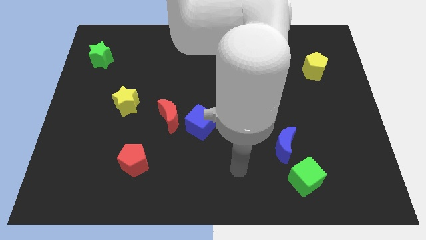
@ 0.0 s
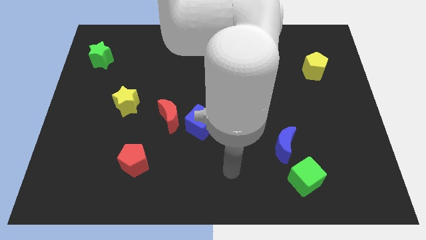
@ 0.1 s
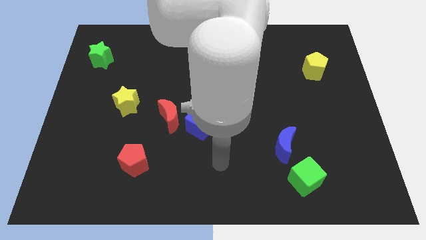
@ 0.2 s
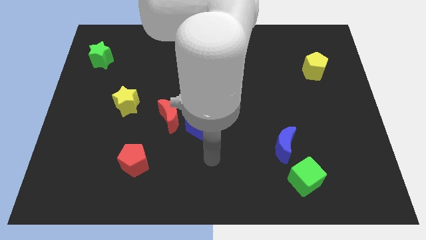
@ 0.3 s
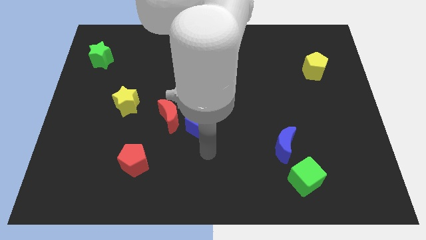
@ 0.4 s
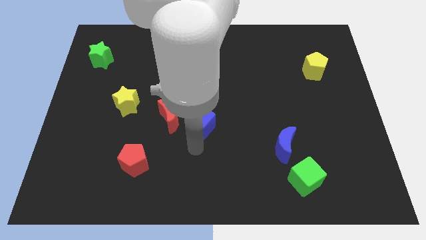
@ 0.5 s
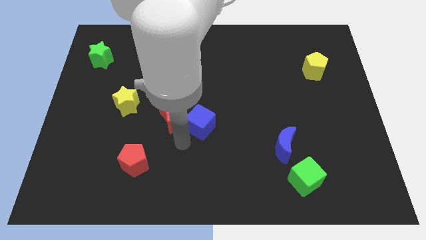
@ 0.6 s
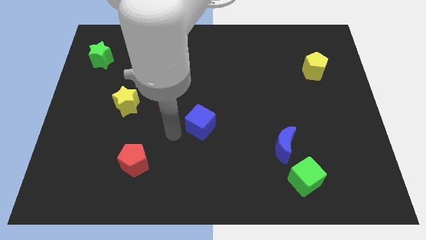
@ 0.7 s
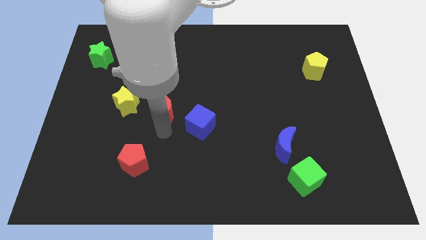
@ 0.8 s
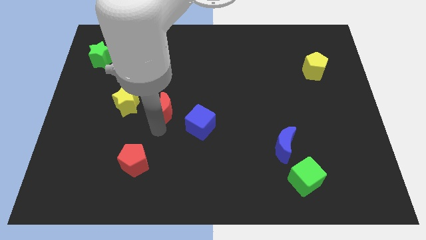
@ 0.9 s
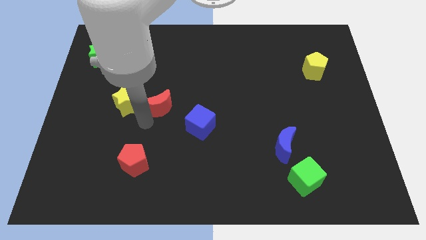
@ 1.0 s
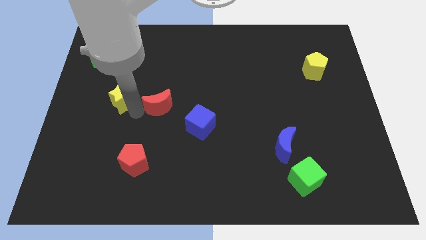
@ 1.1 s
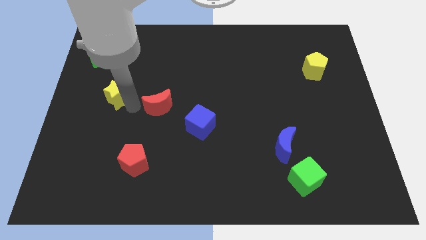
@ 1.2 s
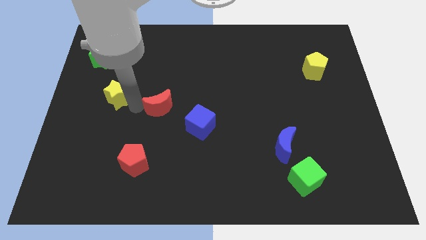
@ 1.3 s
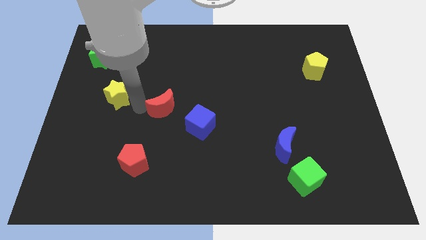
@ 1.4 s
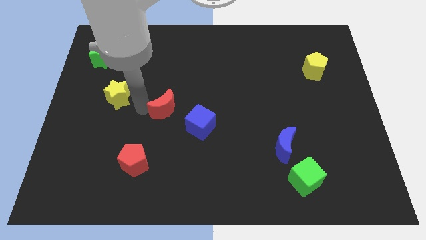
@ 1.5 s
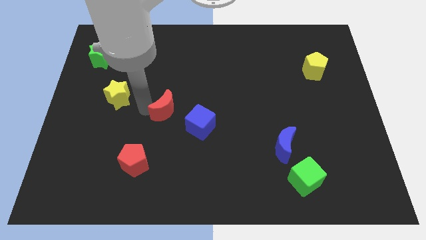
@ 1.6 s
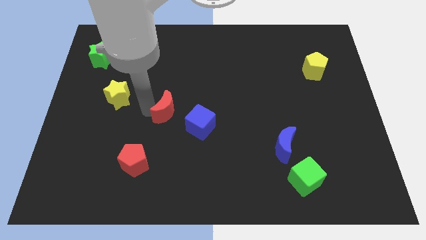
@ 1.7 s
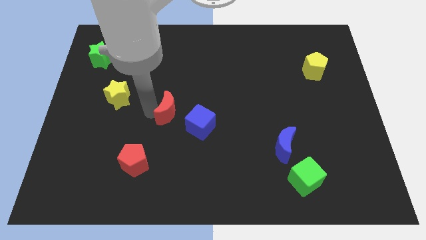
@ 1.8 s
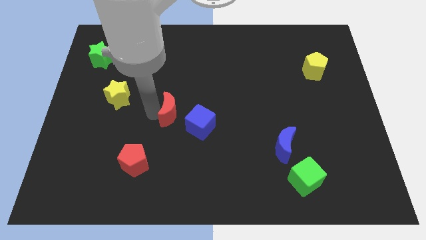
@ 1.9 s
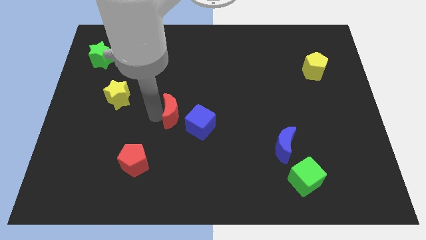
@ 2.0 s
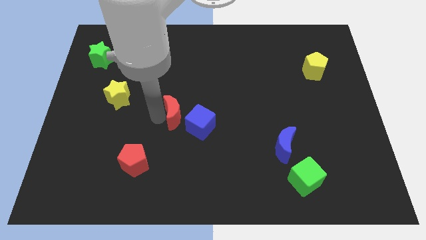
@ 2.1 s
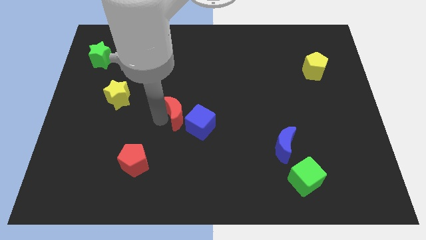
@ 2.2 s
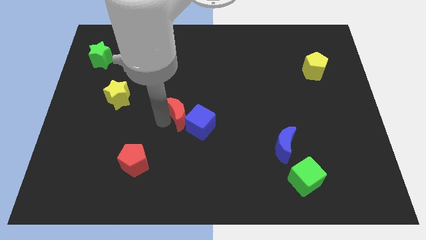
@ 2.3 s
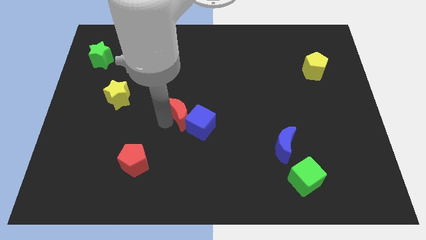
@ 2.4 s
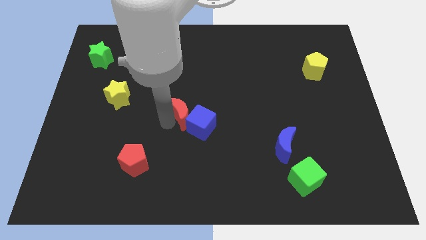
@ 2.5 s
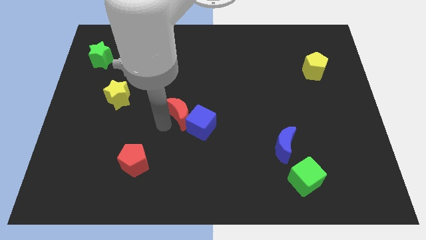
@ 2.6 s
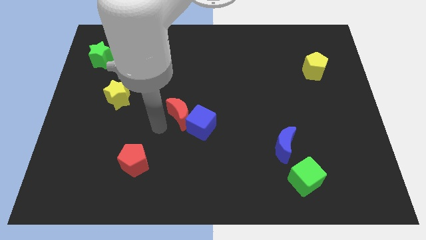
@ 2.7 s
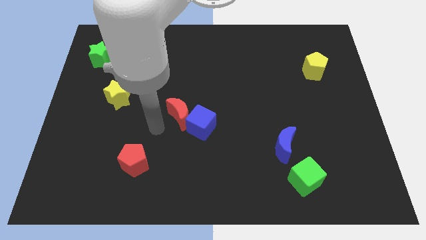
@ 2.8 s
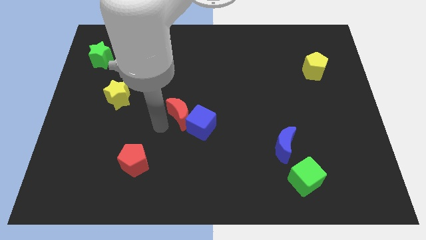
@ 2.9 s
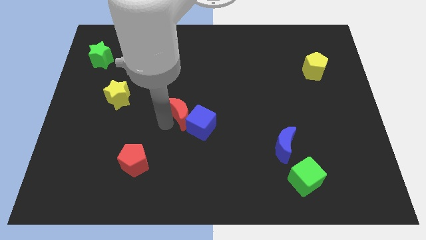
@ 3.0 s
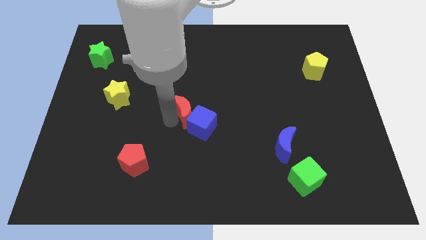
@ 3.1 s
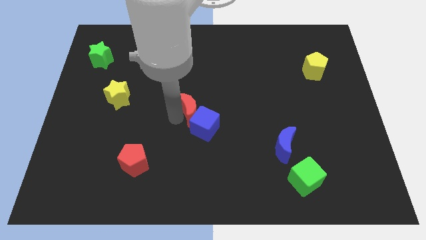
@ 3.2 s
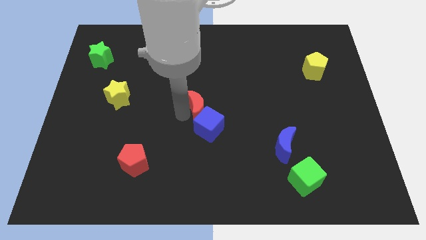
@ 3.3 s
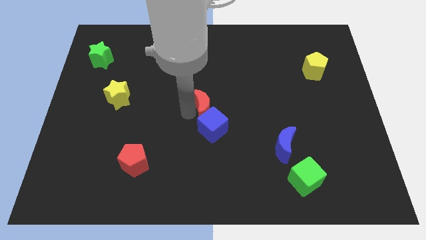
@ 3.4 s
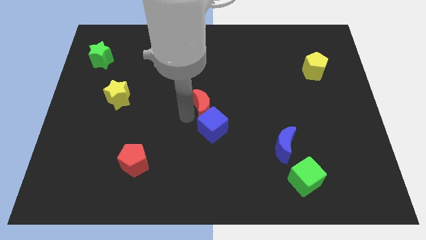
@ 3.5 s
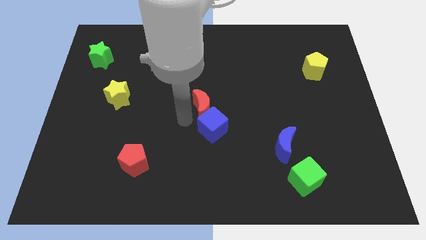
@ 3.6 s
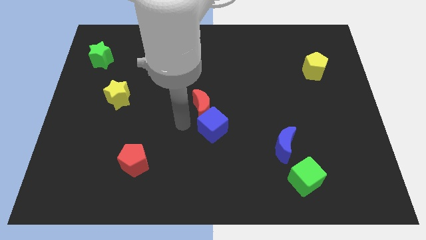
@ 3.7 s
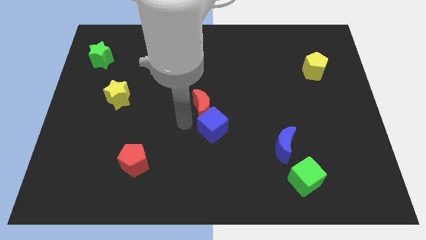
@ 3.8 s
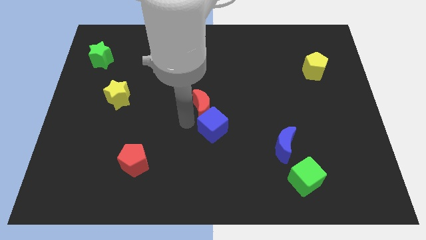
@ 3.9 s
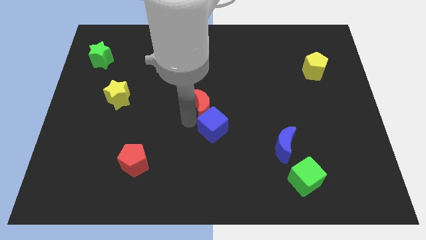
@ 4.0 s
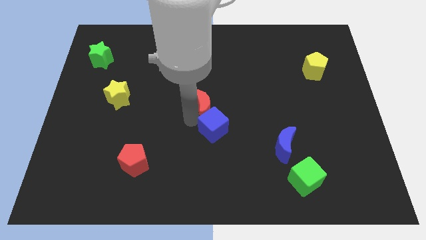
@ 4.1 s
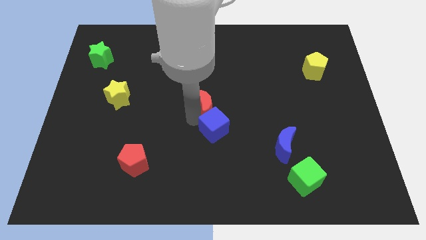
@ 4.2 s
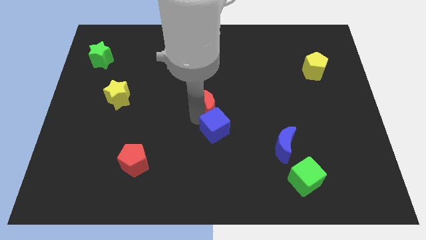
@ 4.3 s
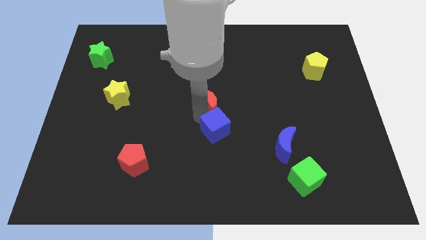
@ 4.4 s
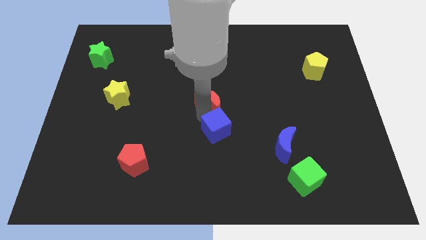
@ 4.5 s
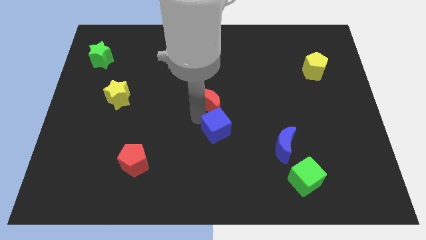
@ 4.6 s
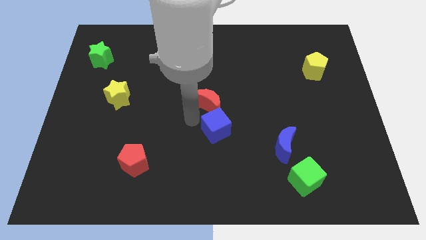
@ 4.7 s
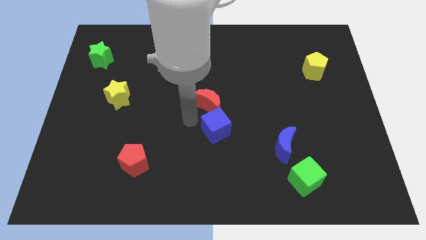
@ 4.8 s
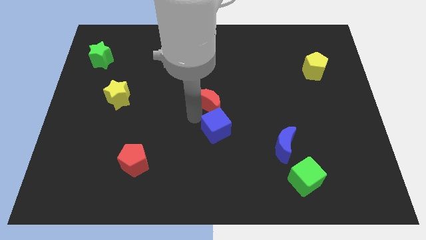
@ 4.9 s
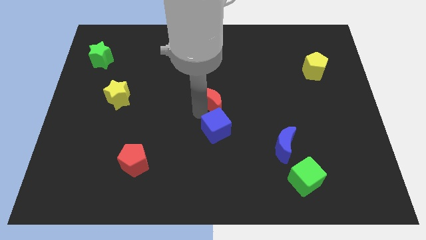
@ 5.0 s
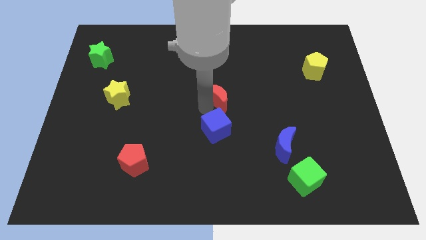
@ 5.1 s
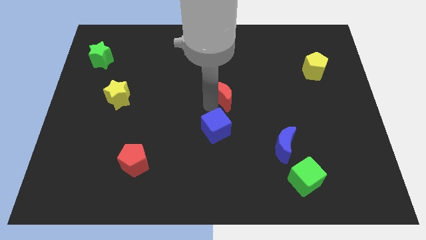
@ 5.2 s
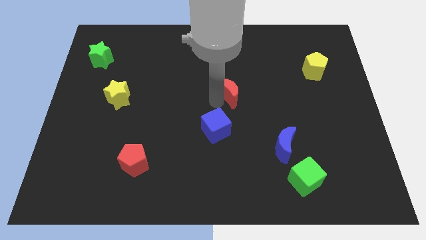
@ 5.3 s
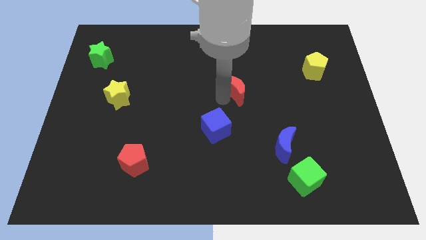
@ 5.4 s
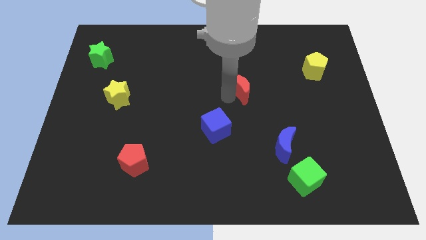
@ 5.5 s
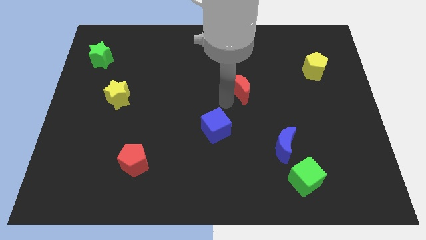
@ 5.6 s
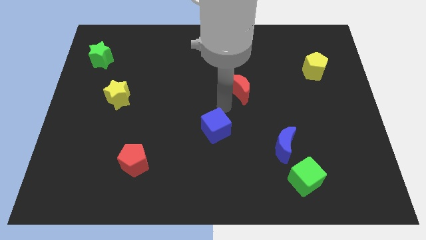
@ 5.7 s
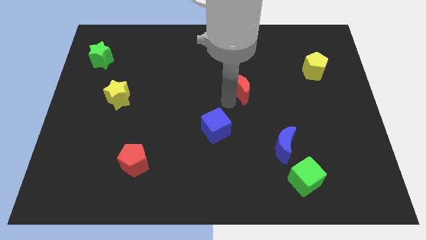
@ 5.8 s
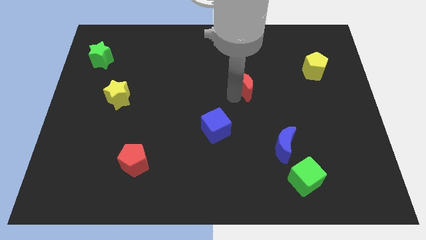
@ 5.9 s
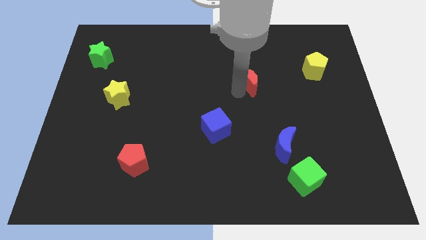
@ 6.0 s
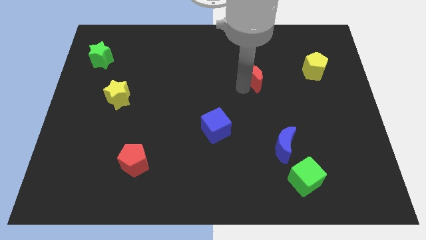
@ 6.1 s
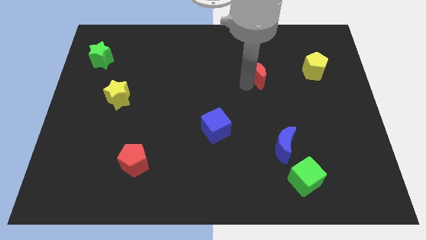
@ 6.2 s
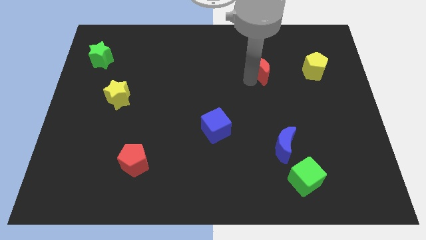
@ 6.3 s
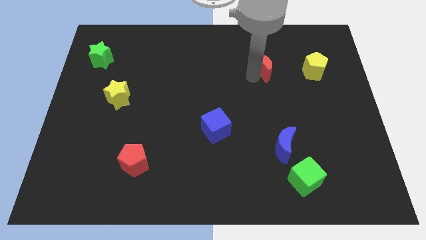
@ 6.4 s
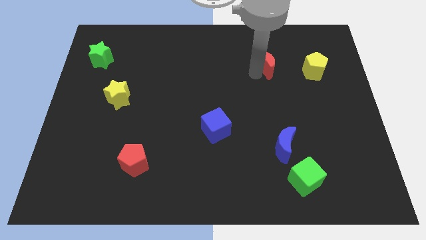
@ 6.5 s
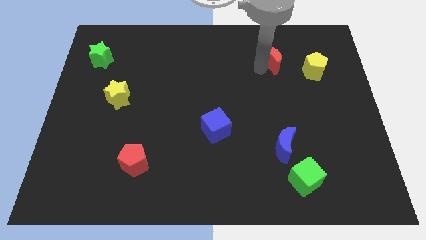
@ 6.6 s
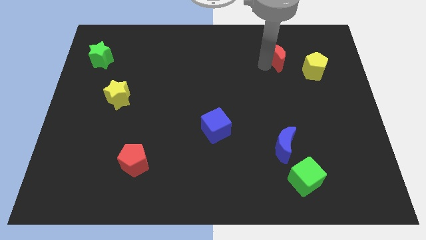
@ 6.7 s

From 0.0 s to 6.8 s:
push the red moon diagonally up and to the left of the yellow pentagon

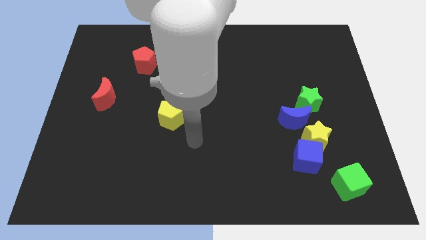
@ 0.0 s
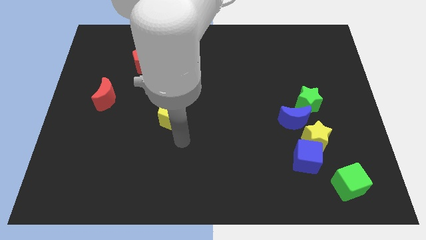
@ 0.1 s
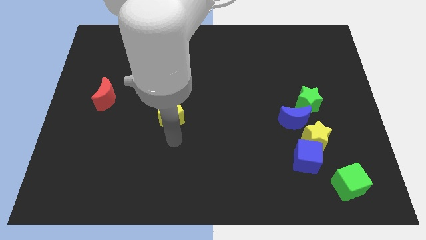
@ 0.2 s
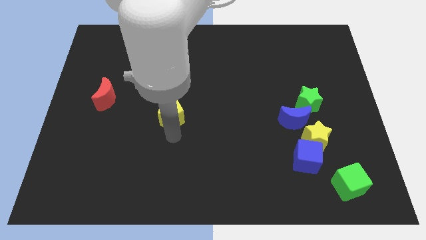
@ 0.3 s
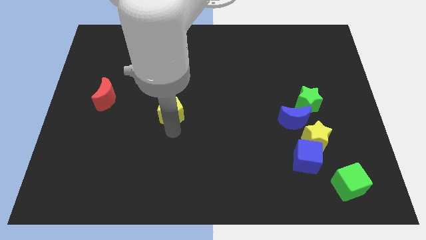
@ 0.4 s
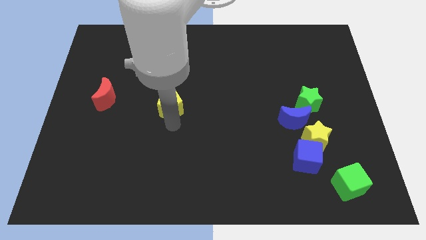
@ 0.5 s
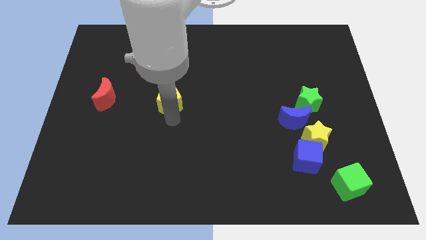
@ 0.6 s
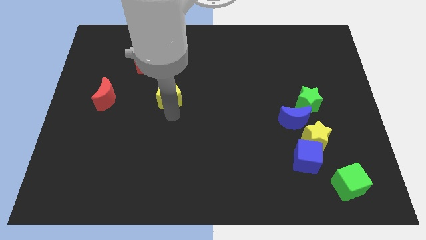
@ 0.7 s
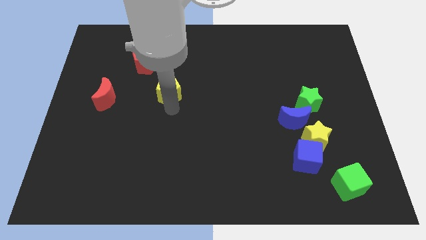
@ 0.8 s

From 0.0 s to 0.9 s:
push the yellow pentagon to the bottom right side of the red pentagon
